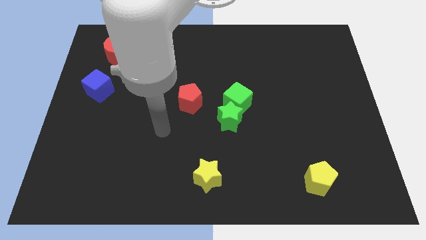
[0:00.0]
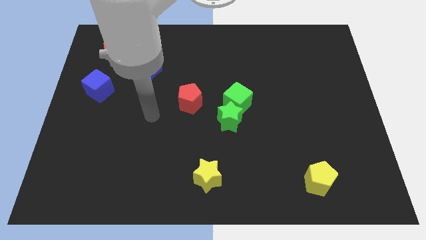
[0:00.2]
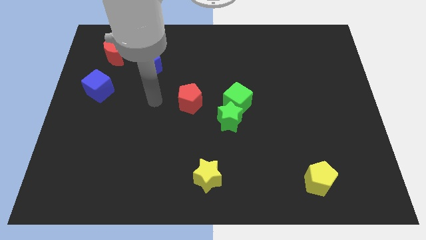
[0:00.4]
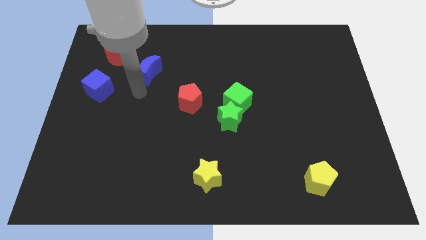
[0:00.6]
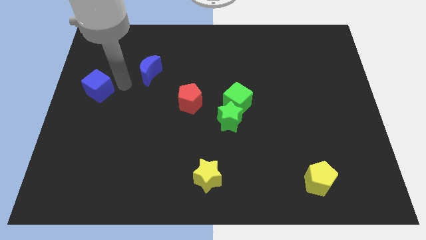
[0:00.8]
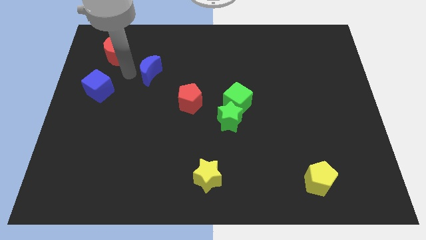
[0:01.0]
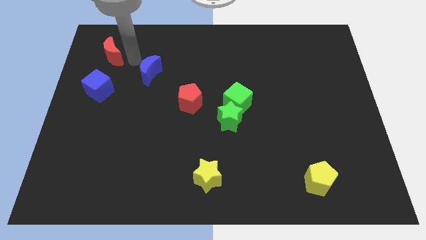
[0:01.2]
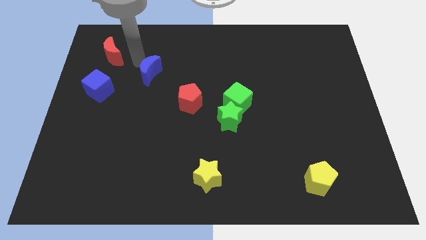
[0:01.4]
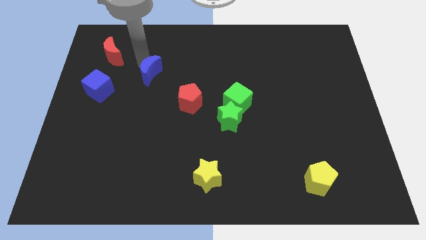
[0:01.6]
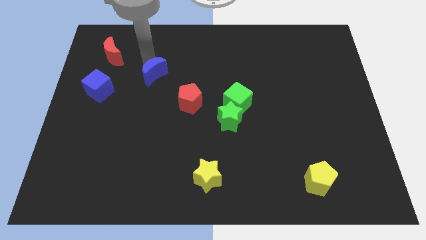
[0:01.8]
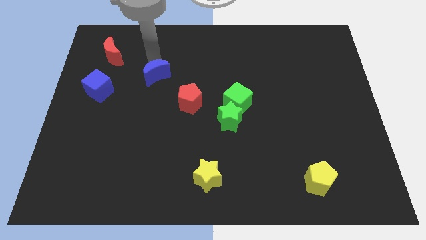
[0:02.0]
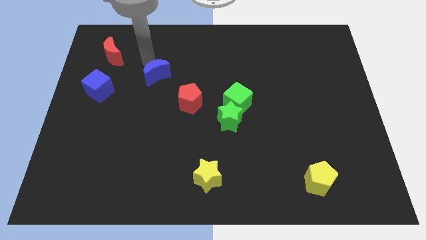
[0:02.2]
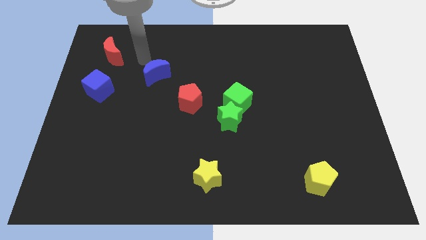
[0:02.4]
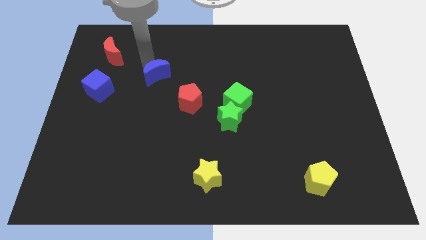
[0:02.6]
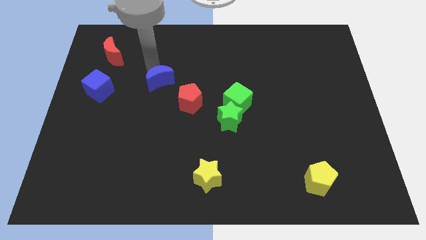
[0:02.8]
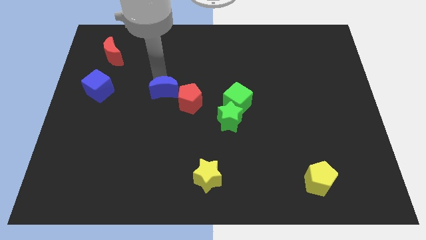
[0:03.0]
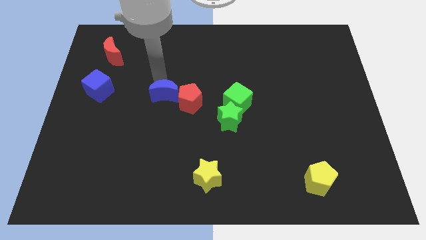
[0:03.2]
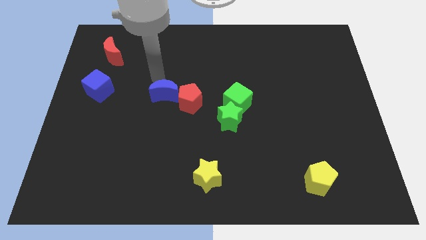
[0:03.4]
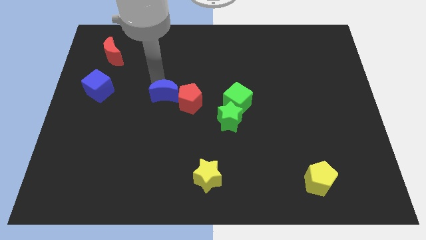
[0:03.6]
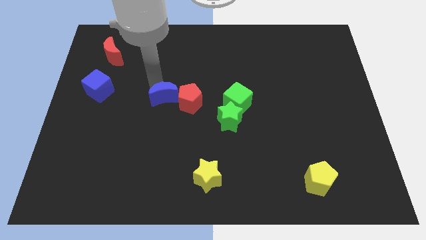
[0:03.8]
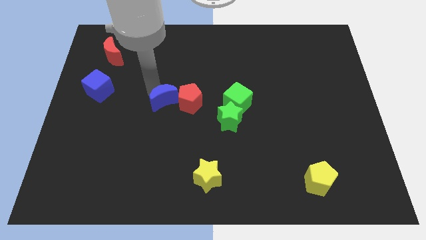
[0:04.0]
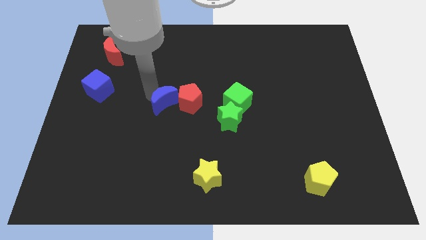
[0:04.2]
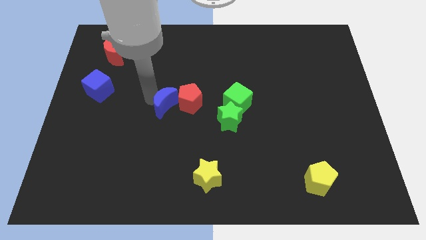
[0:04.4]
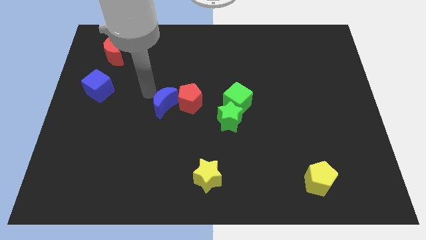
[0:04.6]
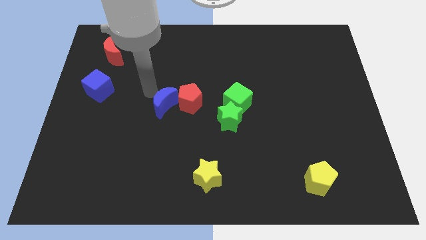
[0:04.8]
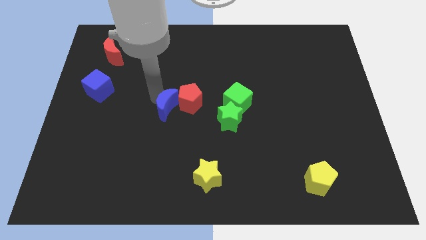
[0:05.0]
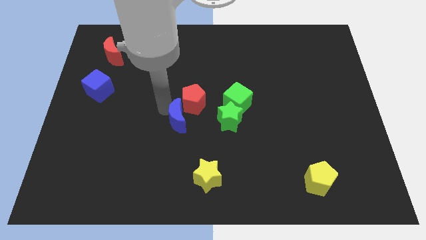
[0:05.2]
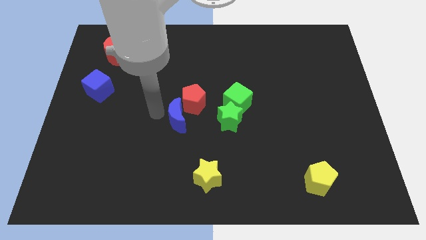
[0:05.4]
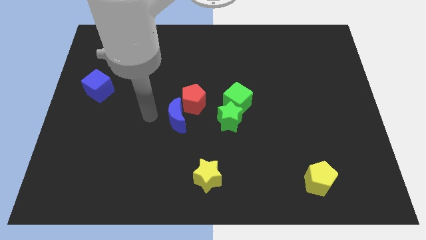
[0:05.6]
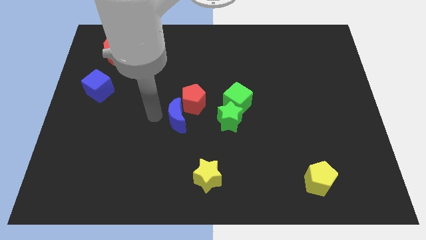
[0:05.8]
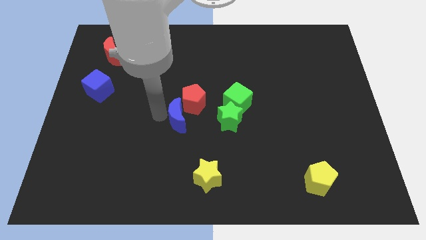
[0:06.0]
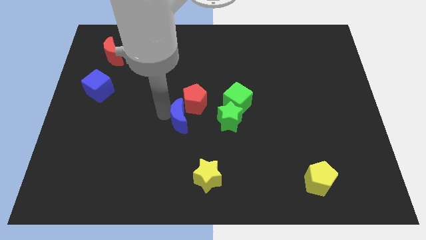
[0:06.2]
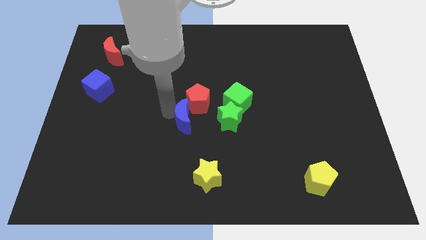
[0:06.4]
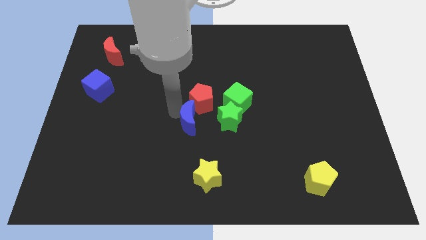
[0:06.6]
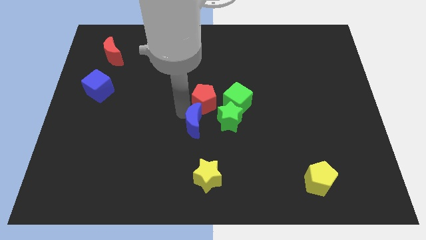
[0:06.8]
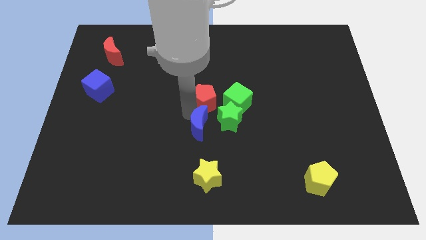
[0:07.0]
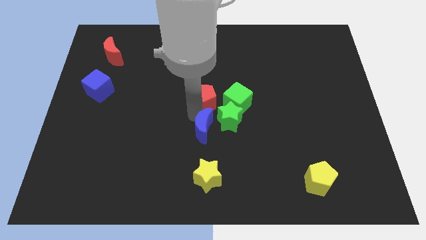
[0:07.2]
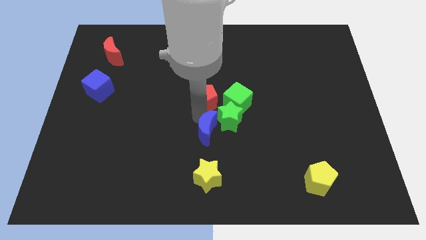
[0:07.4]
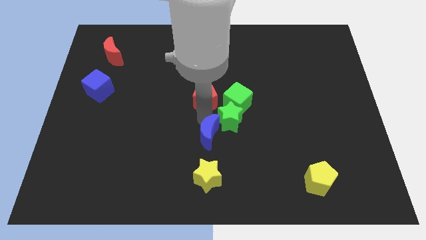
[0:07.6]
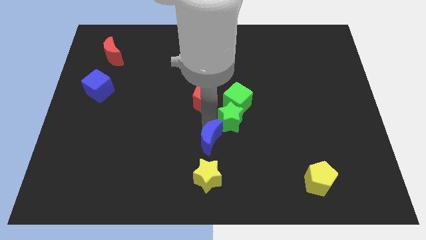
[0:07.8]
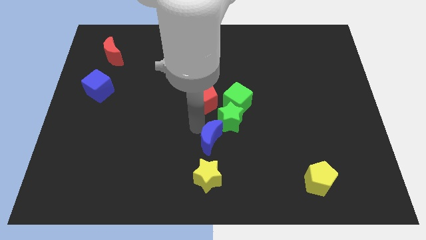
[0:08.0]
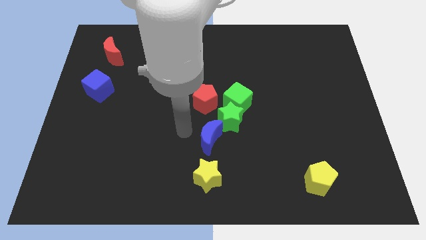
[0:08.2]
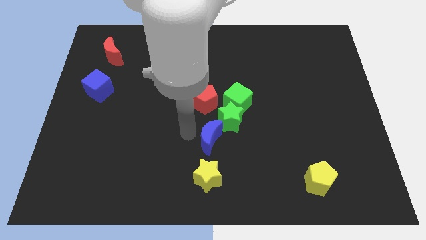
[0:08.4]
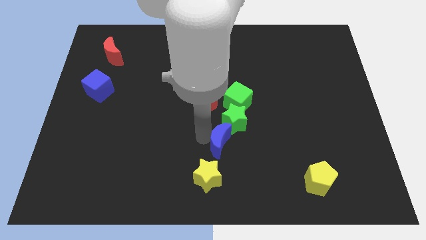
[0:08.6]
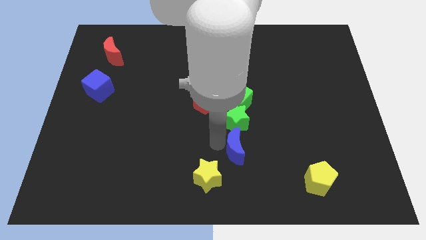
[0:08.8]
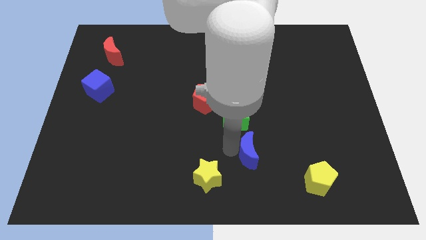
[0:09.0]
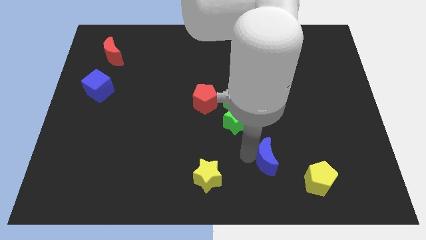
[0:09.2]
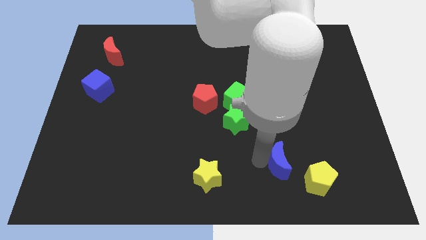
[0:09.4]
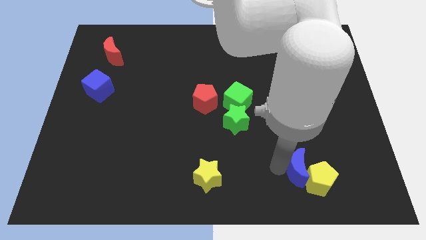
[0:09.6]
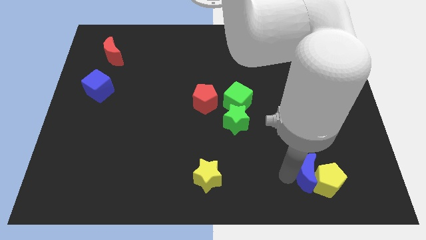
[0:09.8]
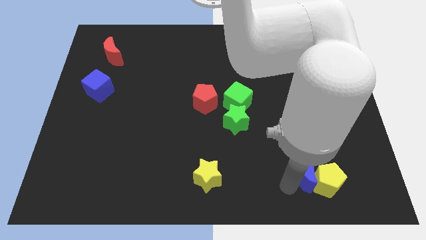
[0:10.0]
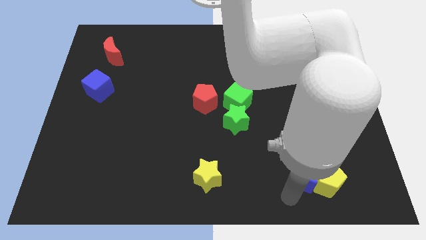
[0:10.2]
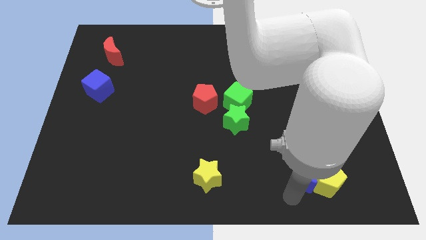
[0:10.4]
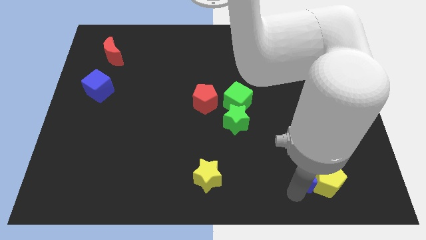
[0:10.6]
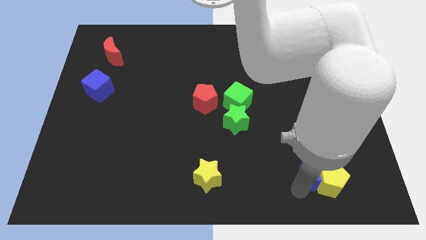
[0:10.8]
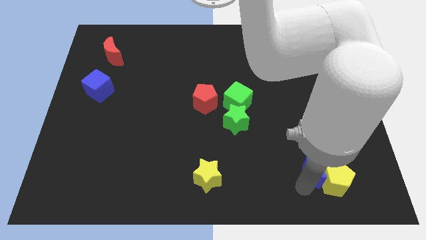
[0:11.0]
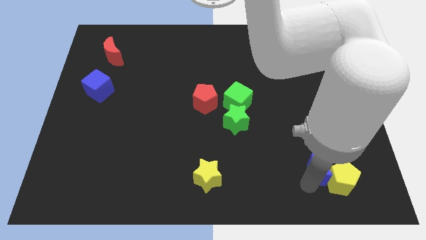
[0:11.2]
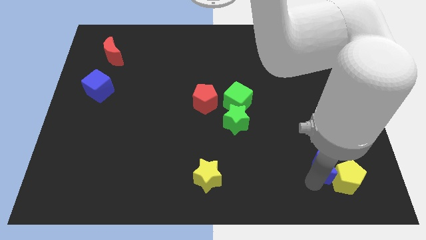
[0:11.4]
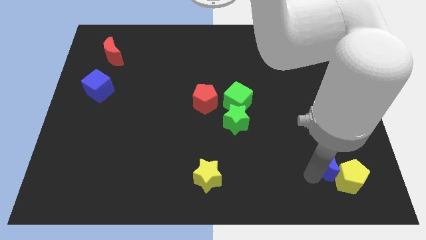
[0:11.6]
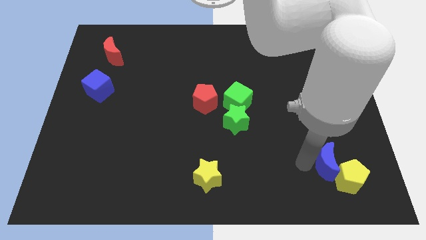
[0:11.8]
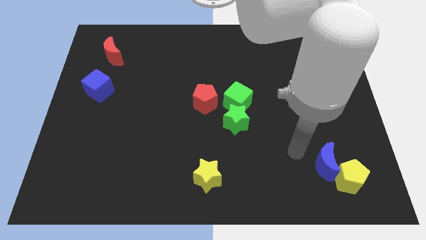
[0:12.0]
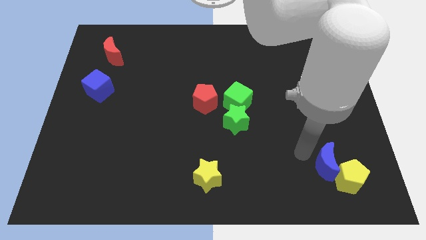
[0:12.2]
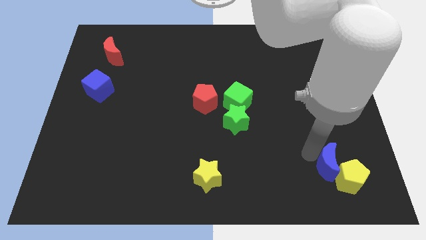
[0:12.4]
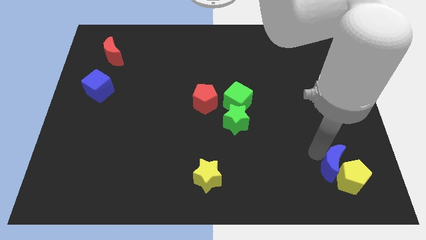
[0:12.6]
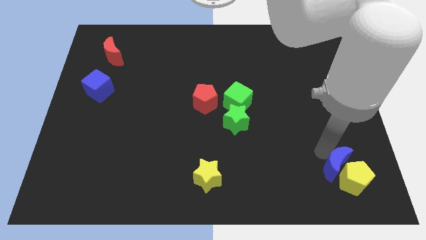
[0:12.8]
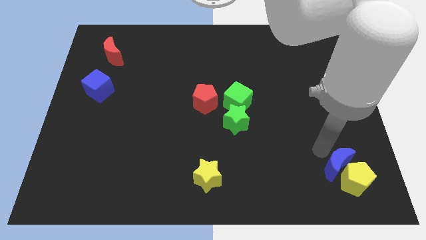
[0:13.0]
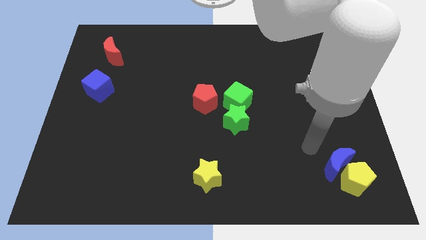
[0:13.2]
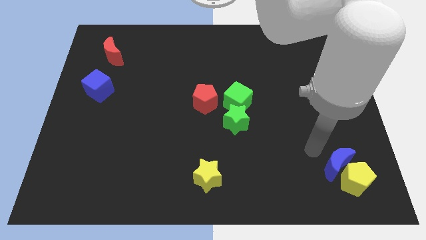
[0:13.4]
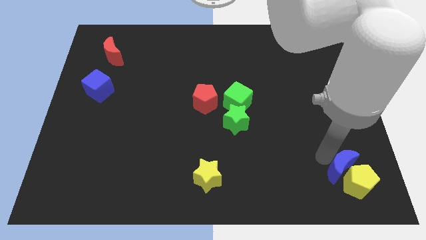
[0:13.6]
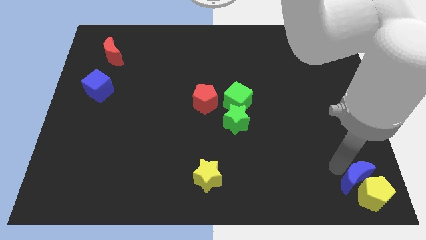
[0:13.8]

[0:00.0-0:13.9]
put the blue moon to the lower right corner
